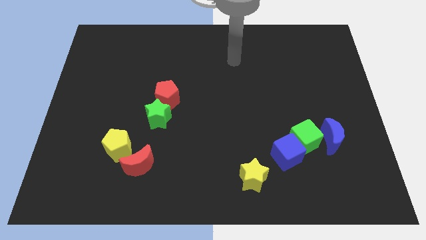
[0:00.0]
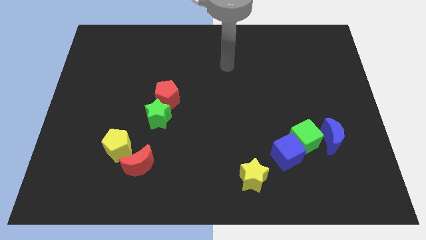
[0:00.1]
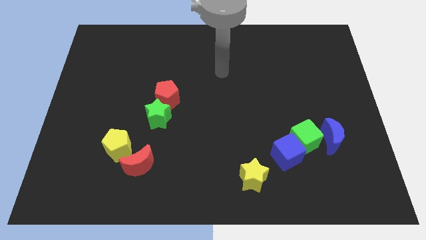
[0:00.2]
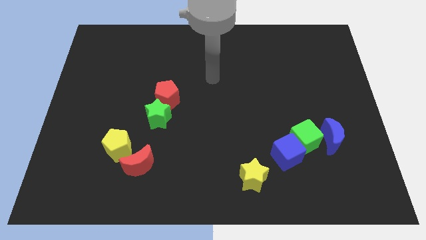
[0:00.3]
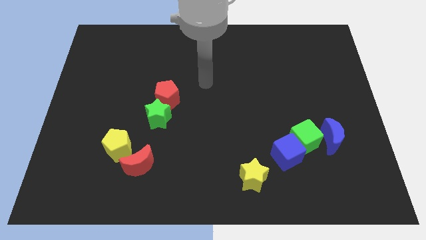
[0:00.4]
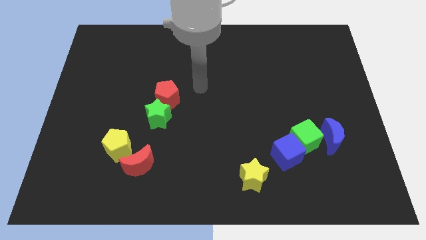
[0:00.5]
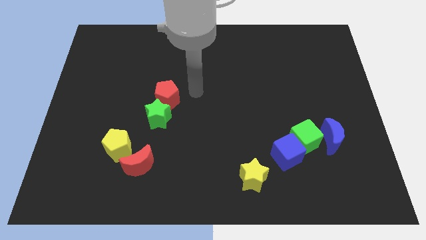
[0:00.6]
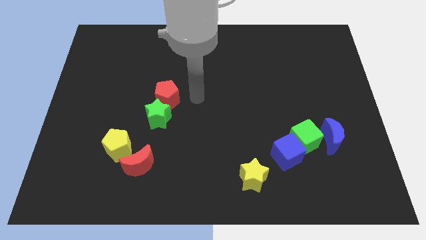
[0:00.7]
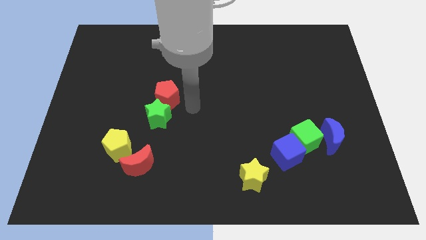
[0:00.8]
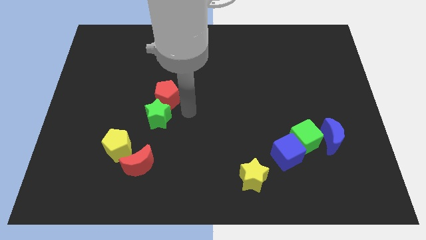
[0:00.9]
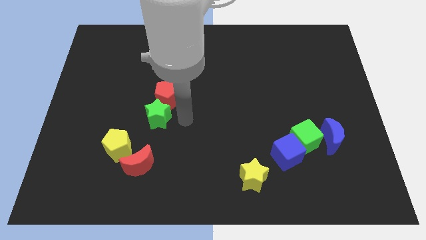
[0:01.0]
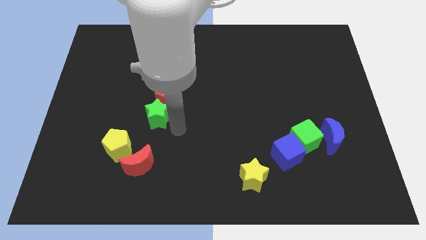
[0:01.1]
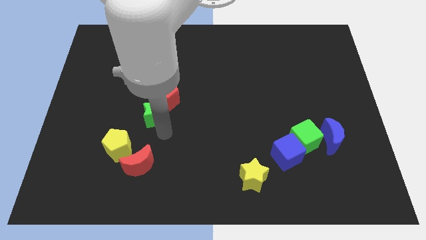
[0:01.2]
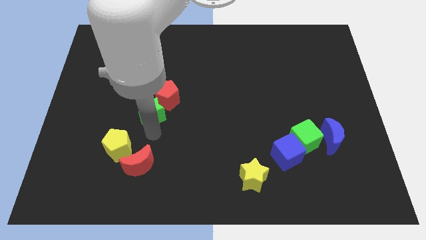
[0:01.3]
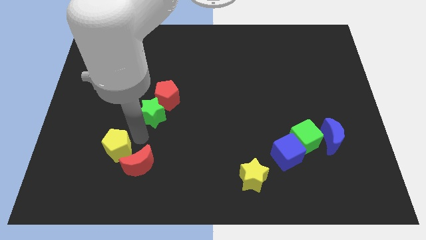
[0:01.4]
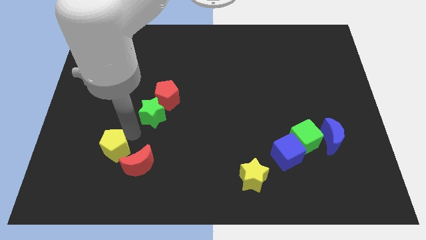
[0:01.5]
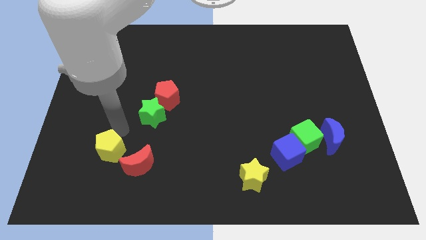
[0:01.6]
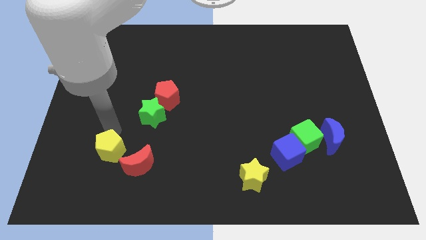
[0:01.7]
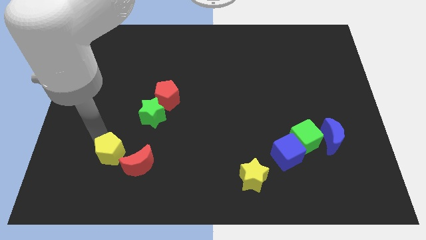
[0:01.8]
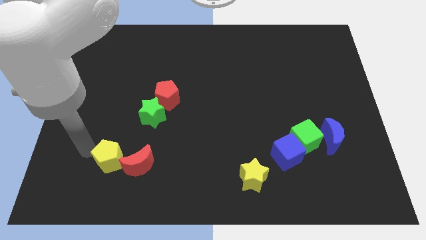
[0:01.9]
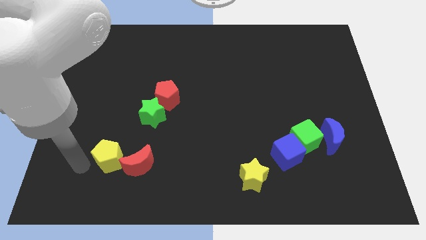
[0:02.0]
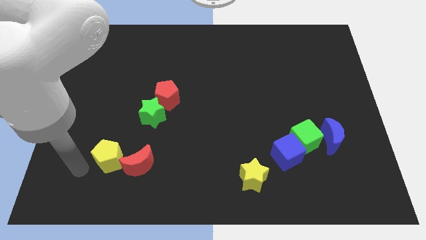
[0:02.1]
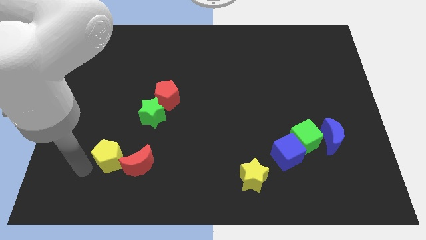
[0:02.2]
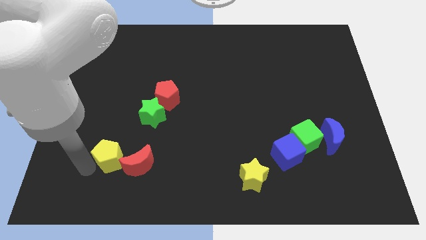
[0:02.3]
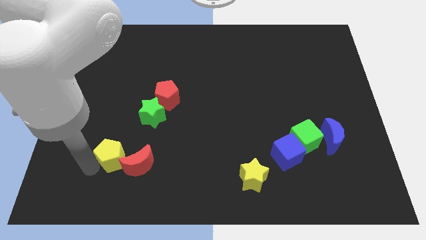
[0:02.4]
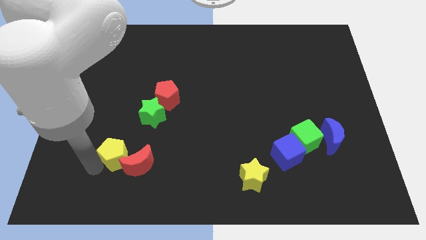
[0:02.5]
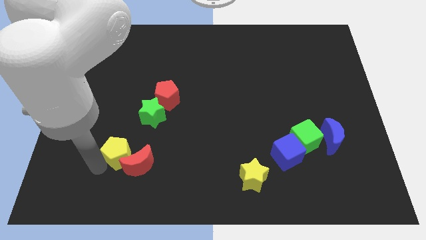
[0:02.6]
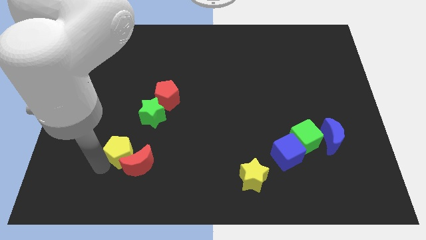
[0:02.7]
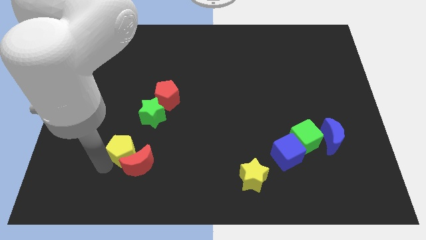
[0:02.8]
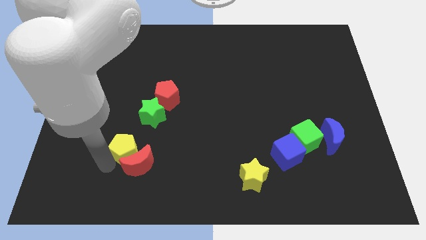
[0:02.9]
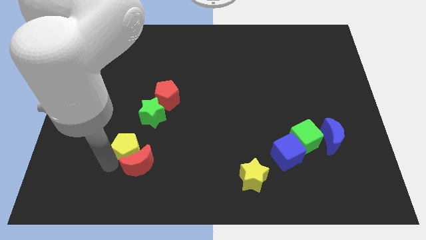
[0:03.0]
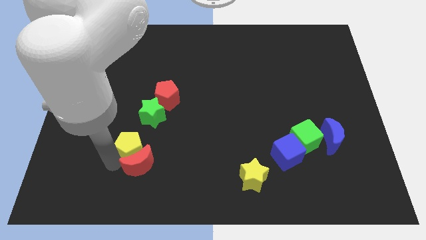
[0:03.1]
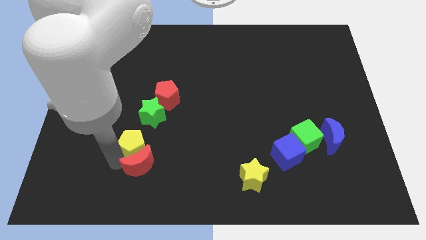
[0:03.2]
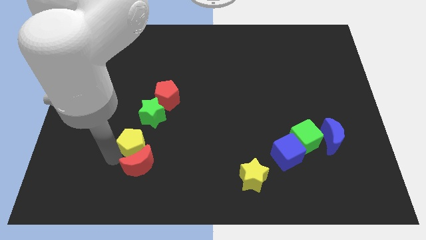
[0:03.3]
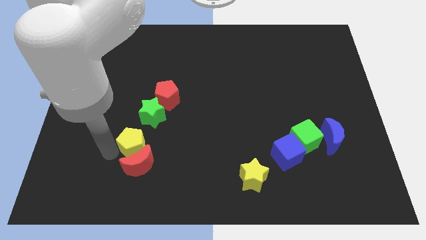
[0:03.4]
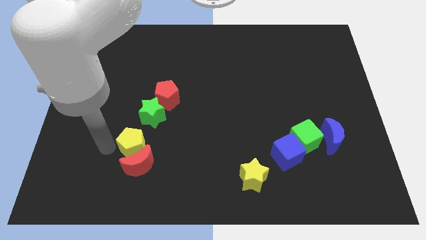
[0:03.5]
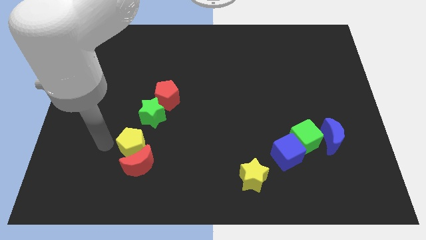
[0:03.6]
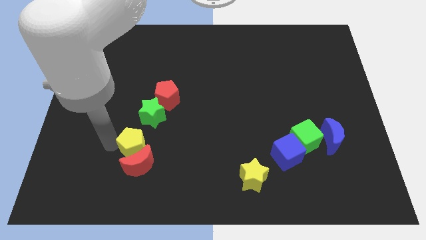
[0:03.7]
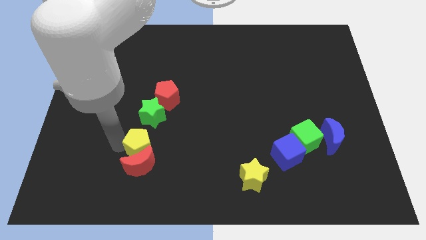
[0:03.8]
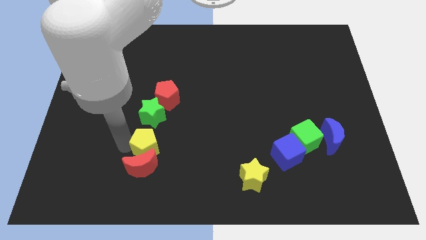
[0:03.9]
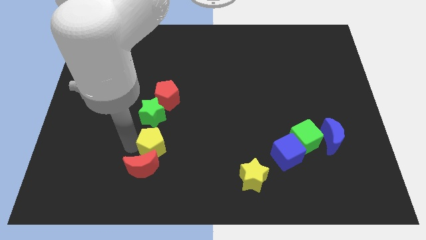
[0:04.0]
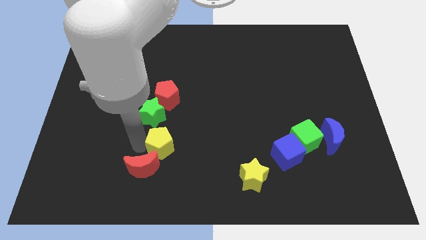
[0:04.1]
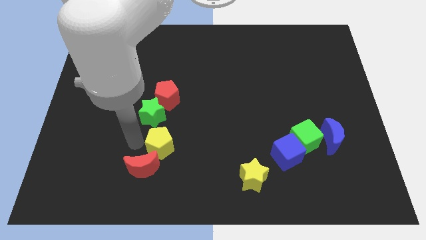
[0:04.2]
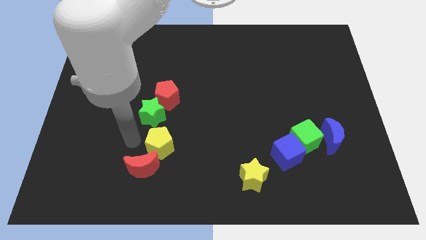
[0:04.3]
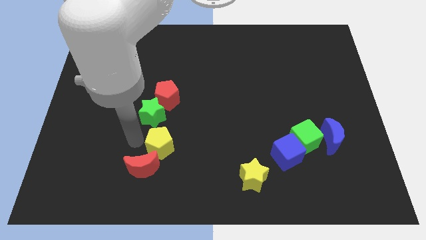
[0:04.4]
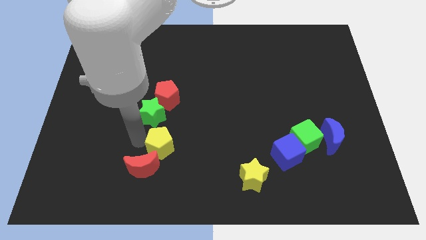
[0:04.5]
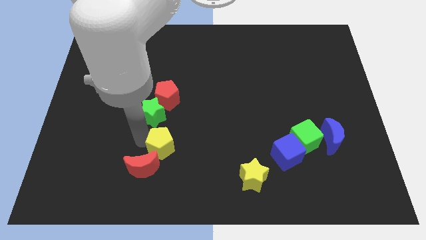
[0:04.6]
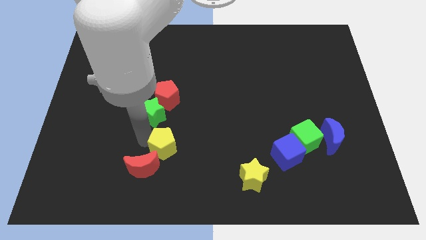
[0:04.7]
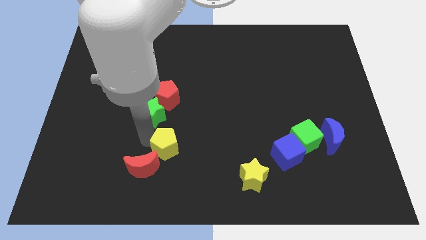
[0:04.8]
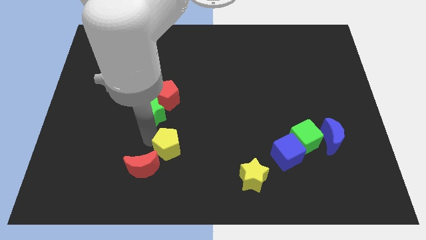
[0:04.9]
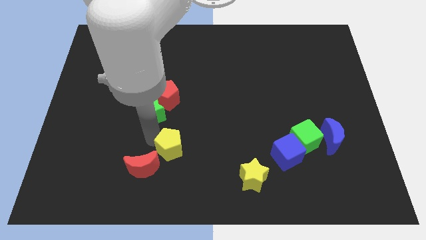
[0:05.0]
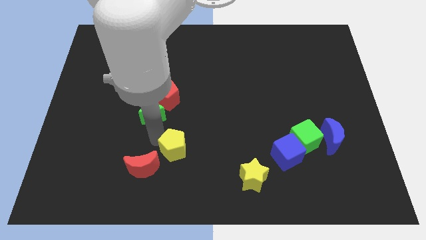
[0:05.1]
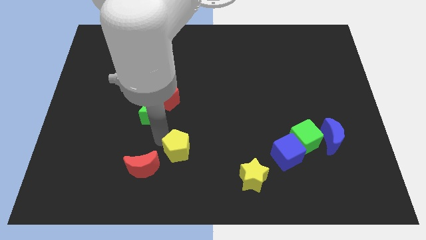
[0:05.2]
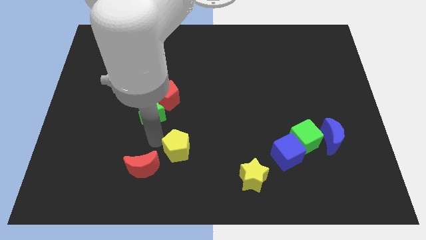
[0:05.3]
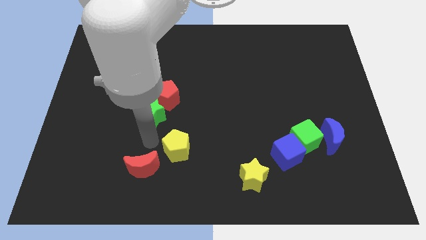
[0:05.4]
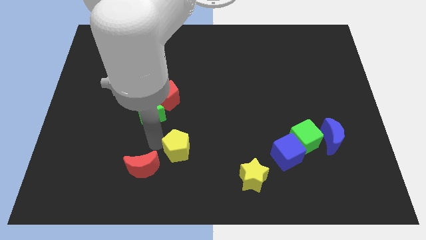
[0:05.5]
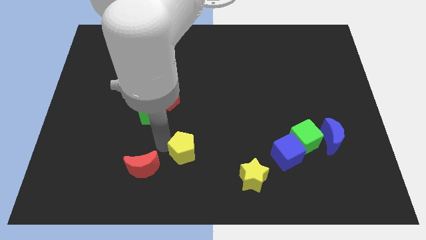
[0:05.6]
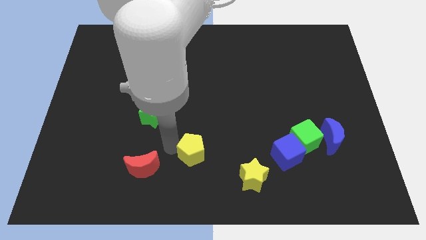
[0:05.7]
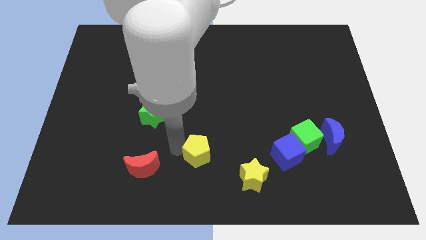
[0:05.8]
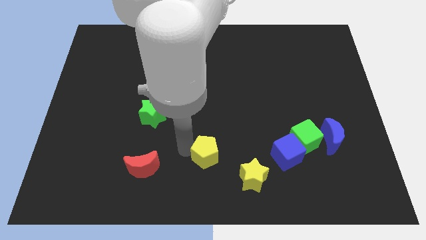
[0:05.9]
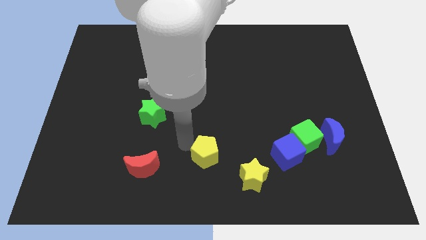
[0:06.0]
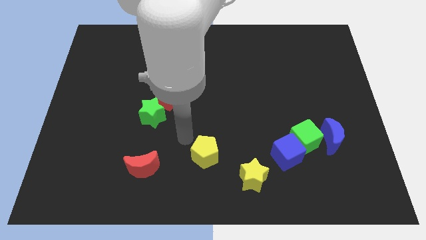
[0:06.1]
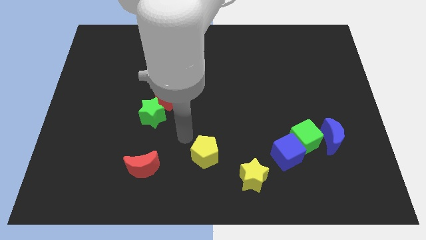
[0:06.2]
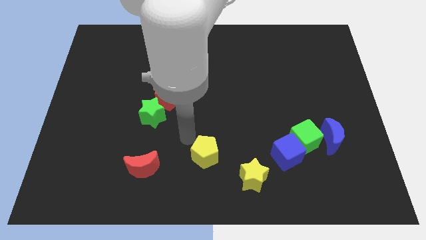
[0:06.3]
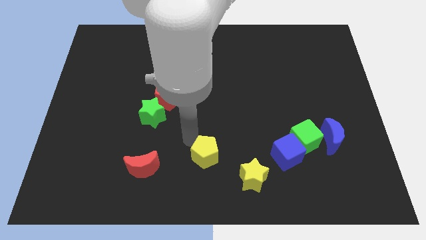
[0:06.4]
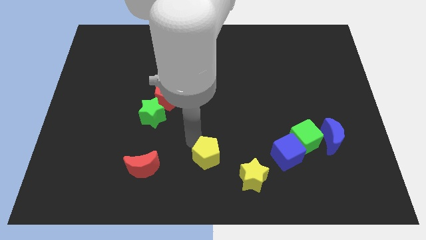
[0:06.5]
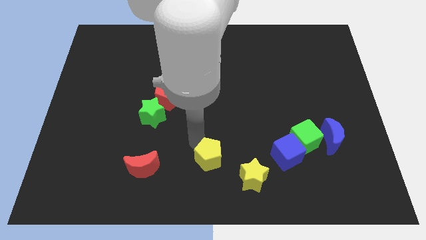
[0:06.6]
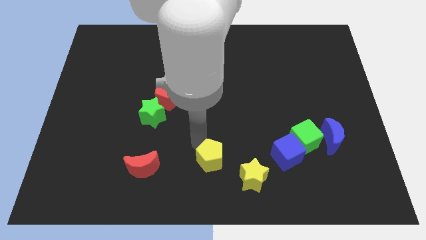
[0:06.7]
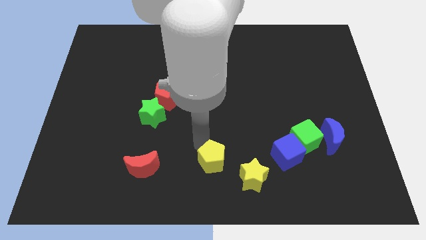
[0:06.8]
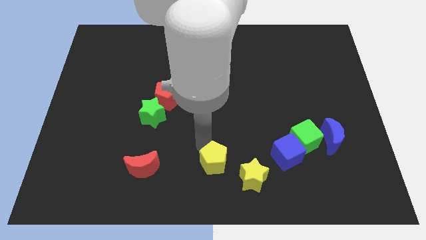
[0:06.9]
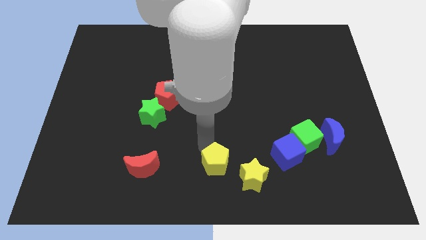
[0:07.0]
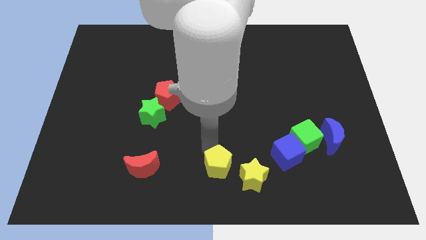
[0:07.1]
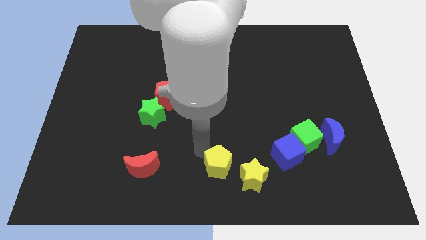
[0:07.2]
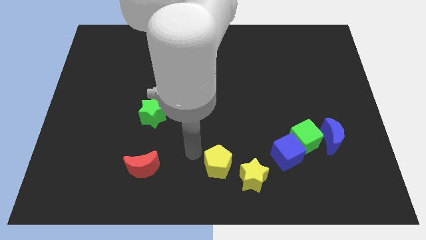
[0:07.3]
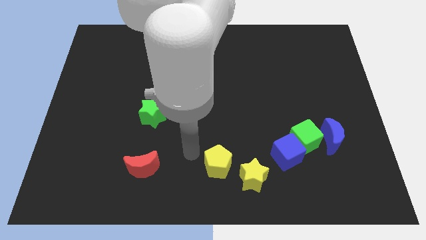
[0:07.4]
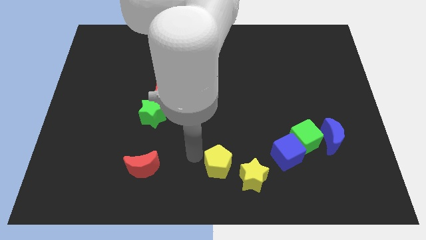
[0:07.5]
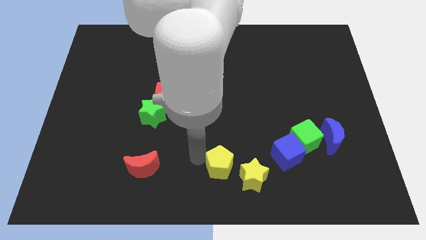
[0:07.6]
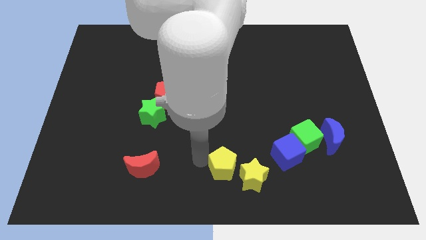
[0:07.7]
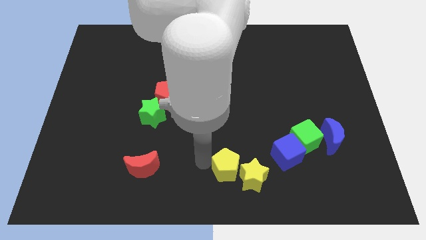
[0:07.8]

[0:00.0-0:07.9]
push the yellow pentagon towards the yellow star
